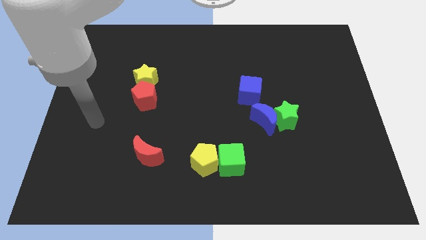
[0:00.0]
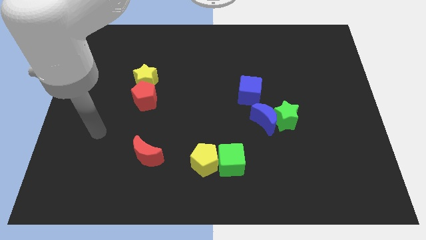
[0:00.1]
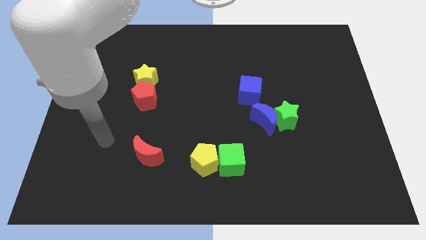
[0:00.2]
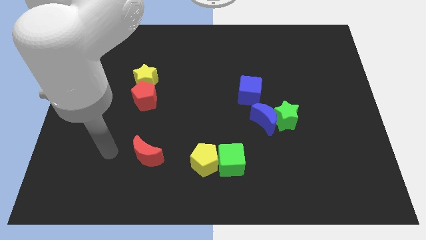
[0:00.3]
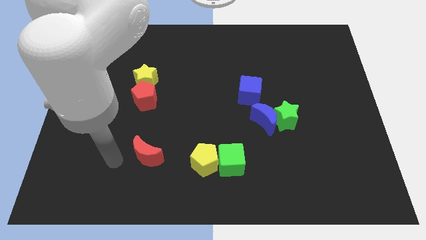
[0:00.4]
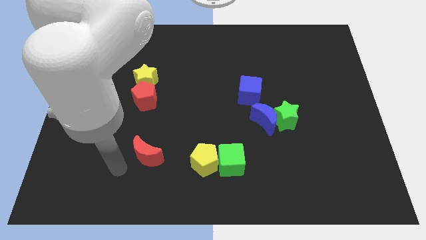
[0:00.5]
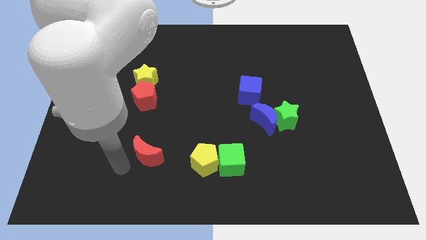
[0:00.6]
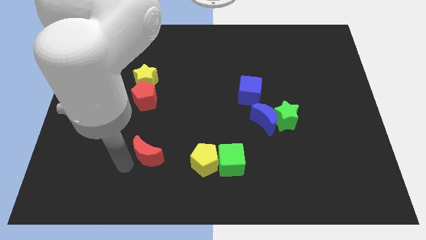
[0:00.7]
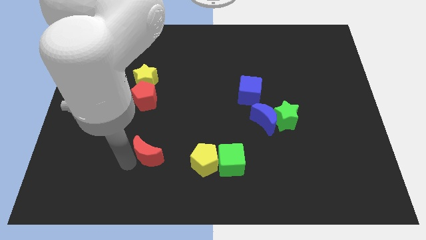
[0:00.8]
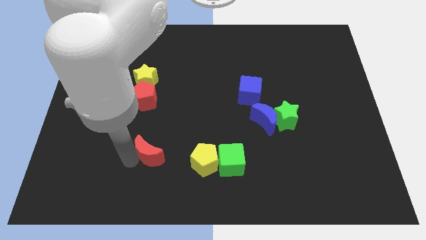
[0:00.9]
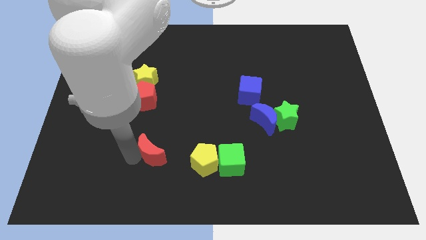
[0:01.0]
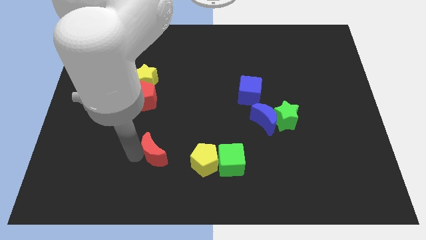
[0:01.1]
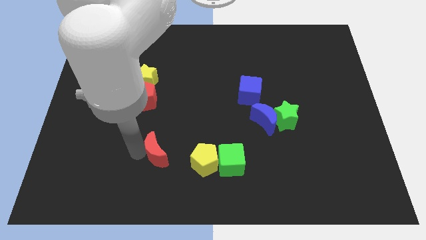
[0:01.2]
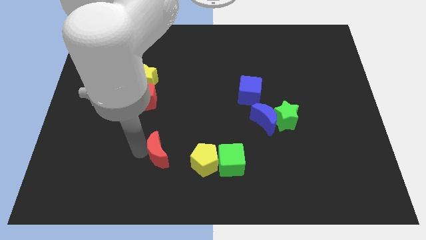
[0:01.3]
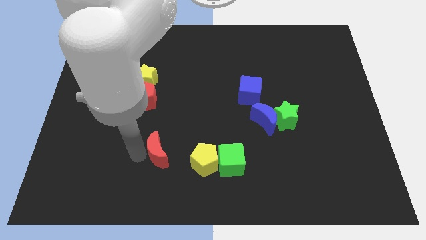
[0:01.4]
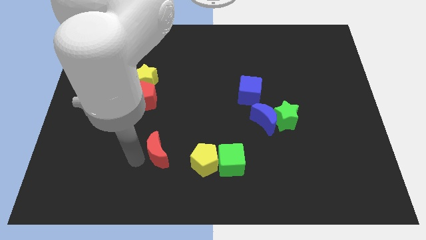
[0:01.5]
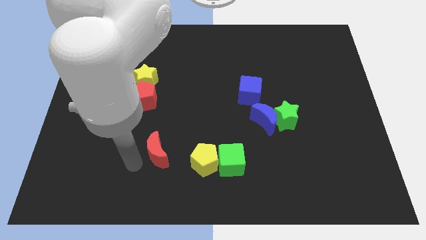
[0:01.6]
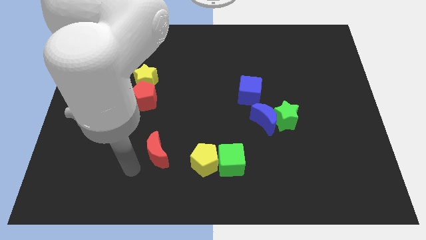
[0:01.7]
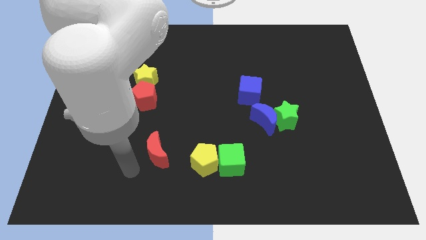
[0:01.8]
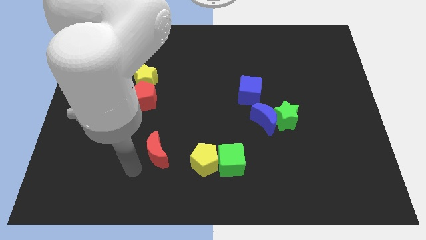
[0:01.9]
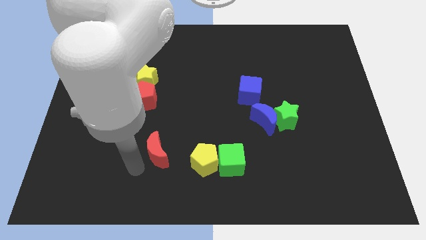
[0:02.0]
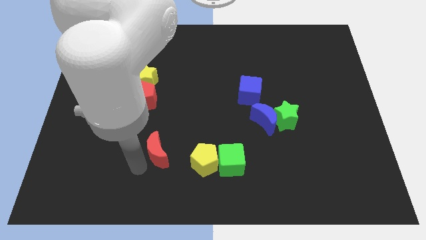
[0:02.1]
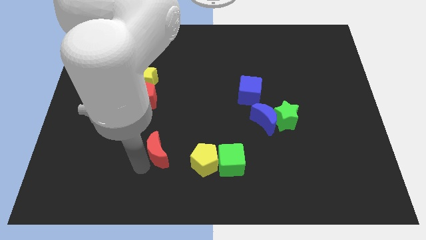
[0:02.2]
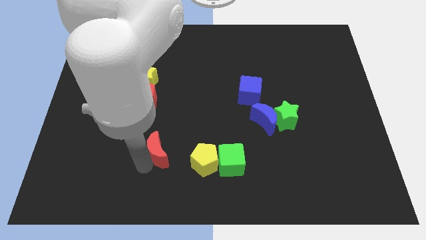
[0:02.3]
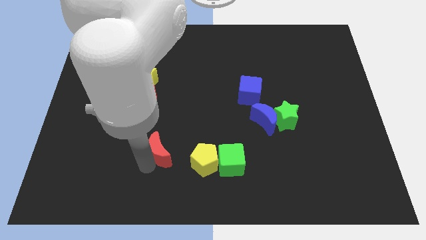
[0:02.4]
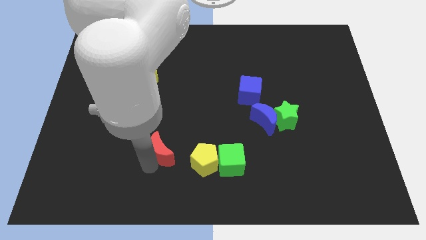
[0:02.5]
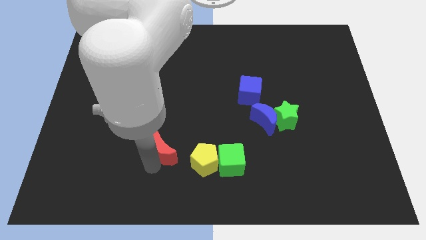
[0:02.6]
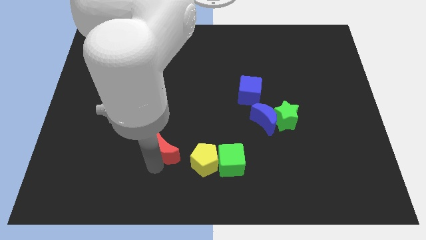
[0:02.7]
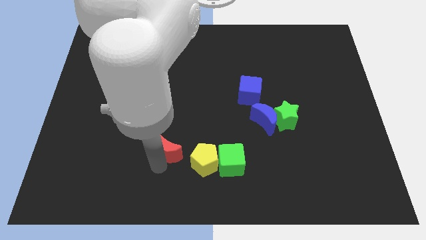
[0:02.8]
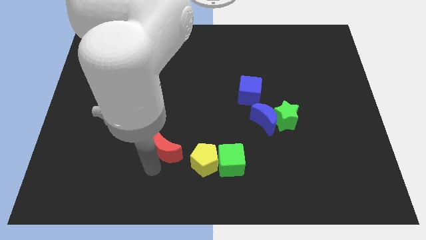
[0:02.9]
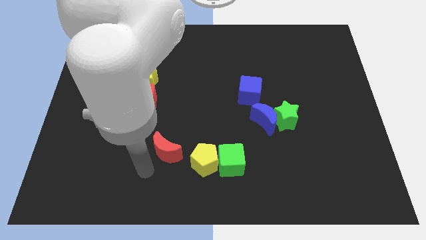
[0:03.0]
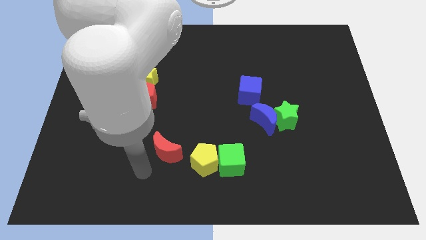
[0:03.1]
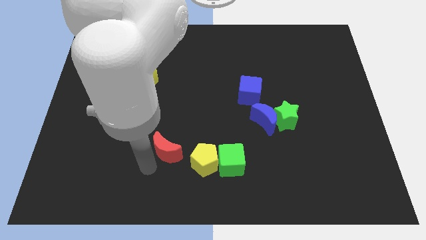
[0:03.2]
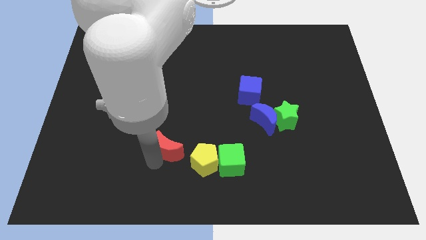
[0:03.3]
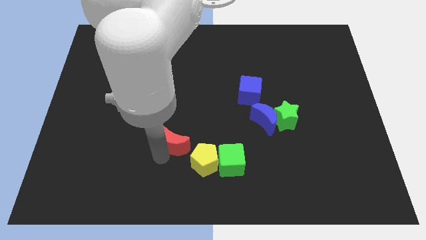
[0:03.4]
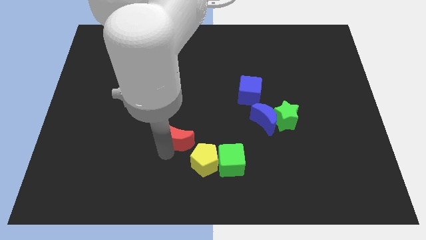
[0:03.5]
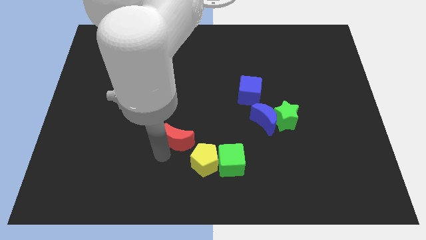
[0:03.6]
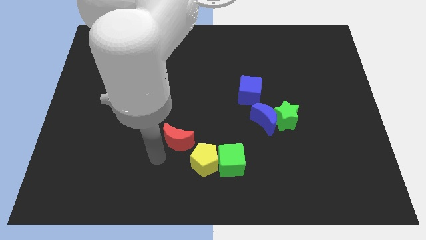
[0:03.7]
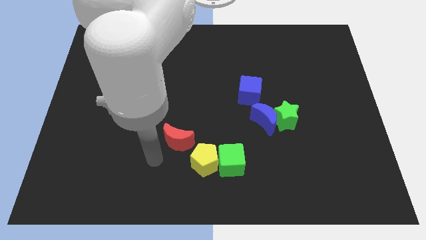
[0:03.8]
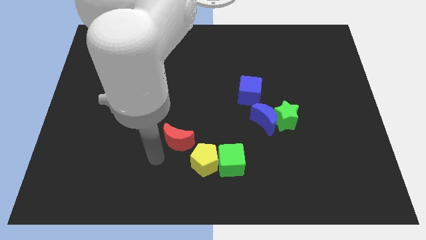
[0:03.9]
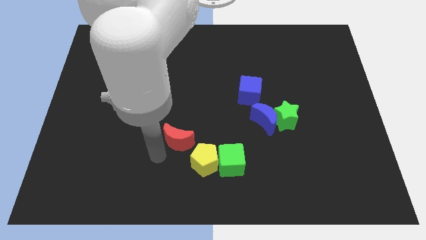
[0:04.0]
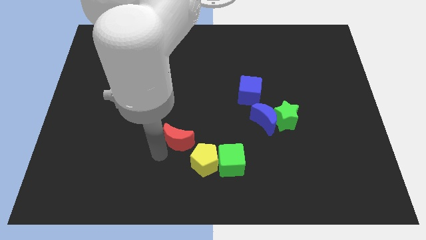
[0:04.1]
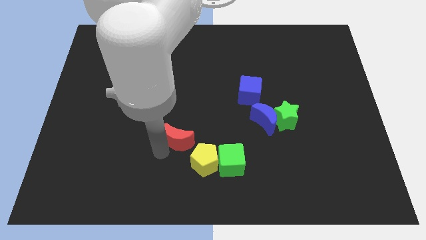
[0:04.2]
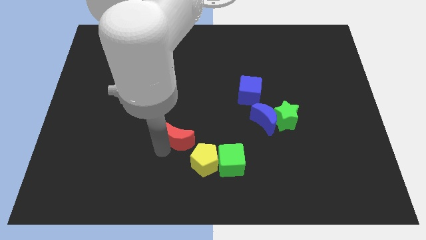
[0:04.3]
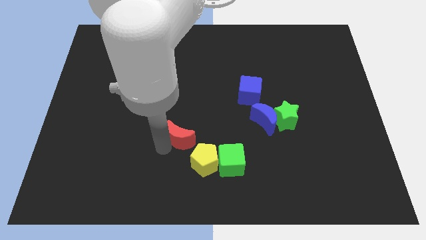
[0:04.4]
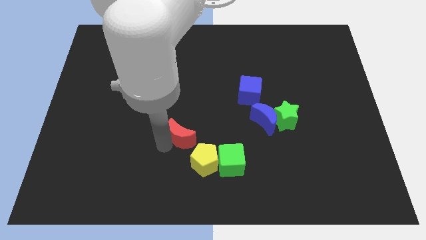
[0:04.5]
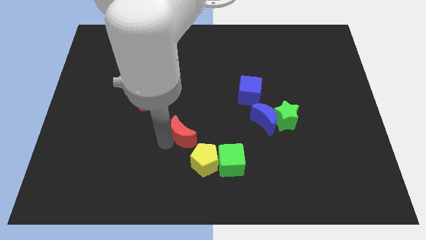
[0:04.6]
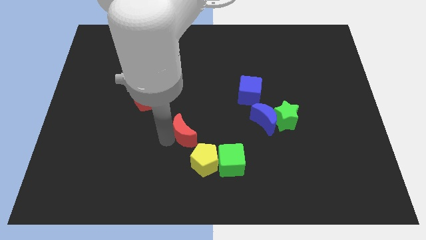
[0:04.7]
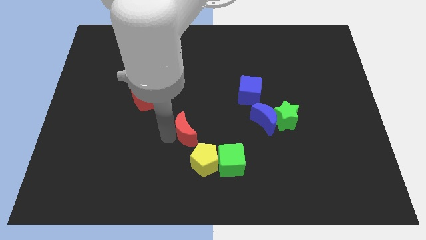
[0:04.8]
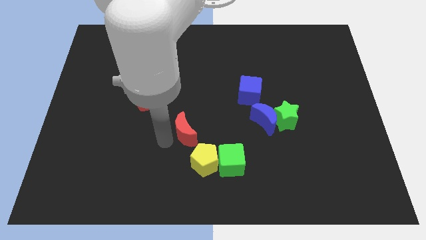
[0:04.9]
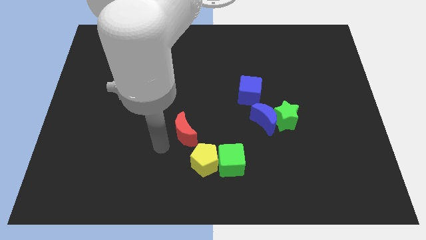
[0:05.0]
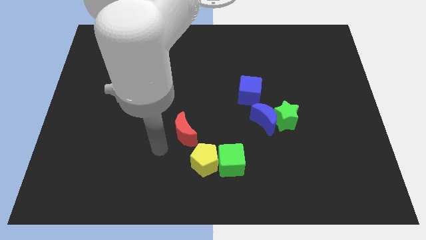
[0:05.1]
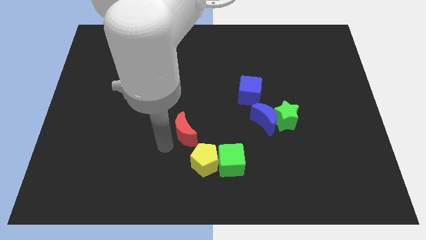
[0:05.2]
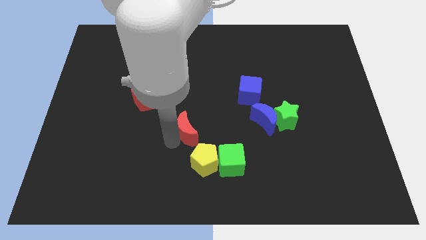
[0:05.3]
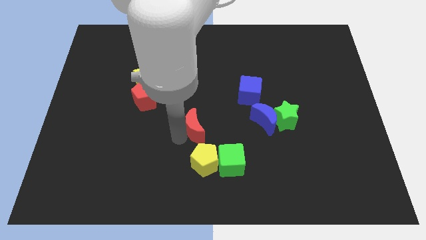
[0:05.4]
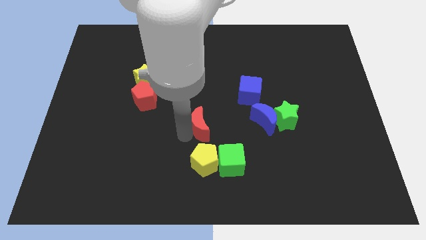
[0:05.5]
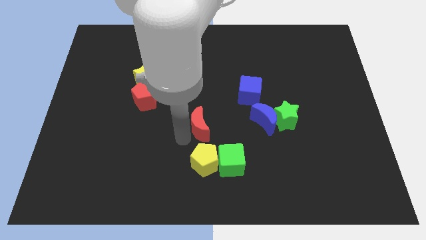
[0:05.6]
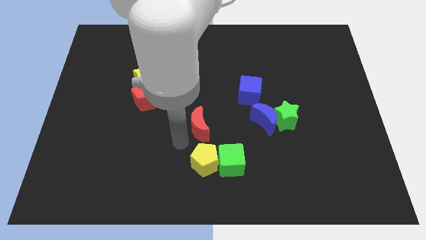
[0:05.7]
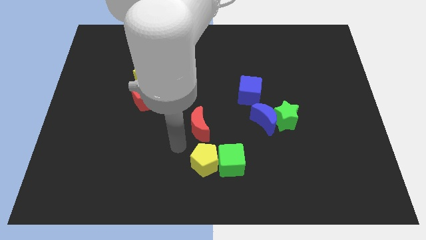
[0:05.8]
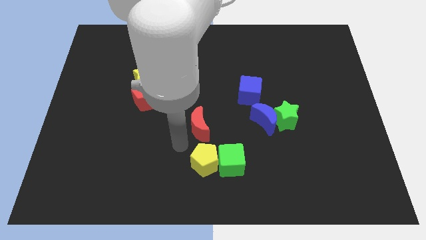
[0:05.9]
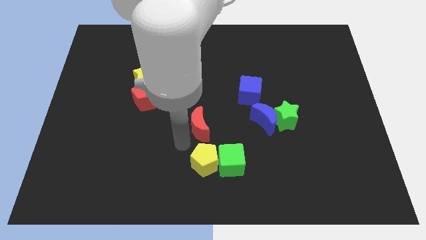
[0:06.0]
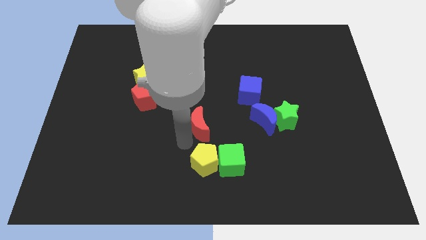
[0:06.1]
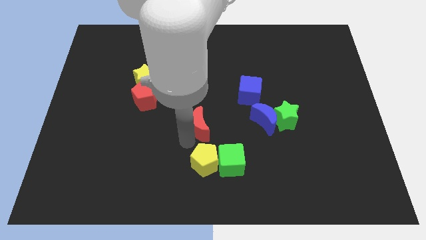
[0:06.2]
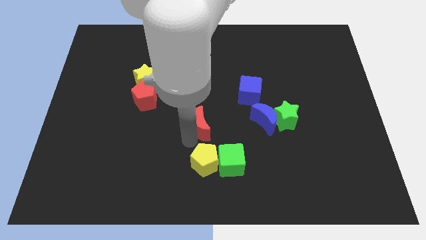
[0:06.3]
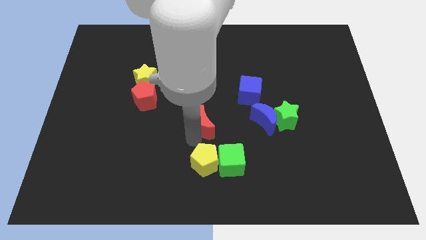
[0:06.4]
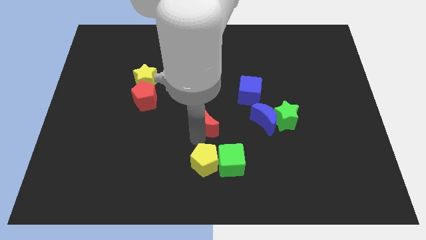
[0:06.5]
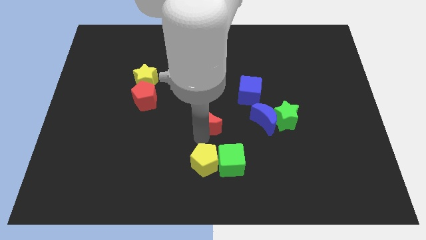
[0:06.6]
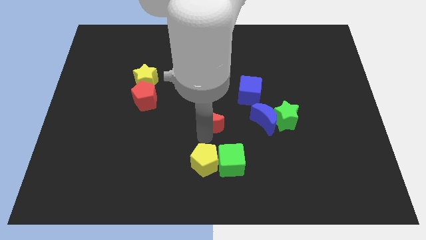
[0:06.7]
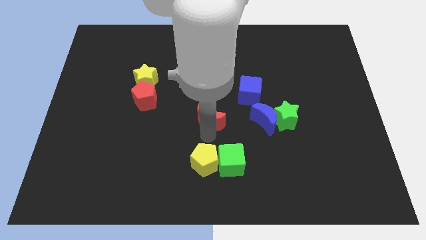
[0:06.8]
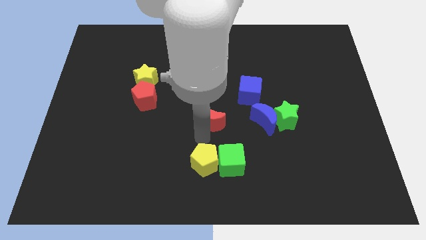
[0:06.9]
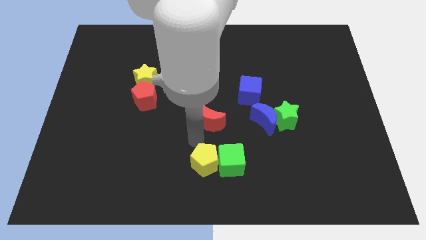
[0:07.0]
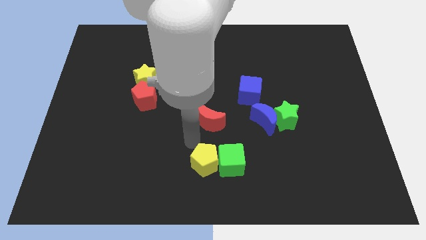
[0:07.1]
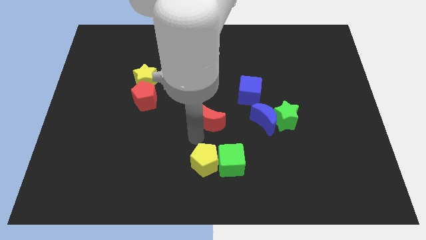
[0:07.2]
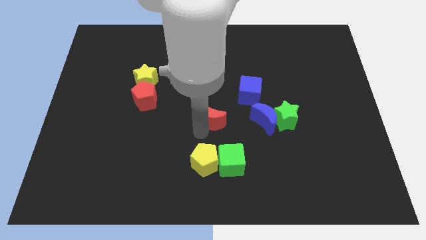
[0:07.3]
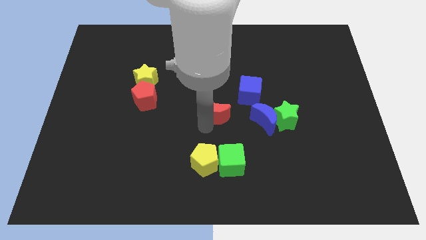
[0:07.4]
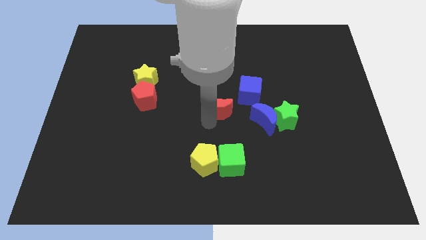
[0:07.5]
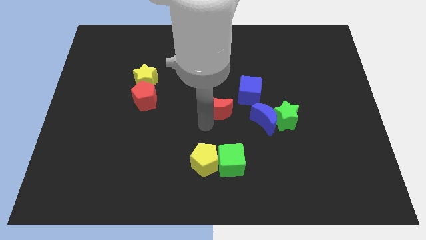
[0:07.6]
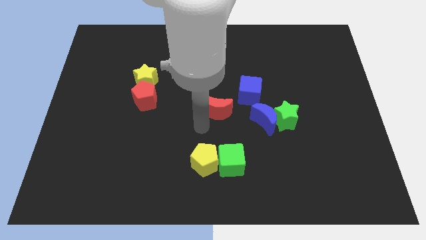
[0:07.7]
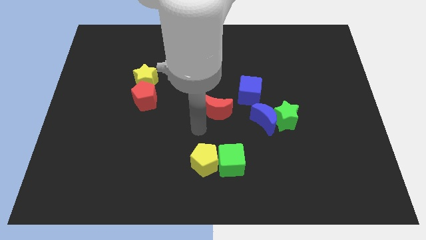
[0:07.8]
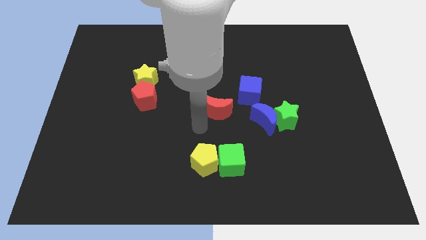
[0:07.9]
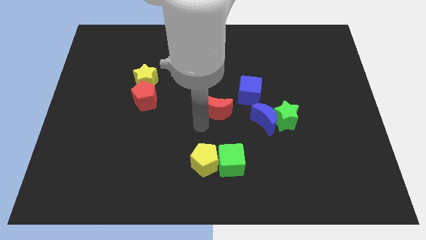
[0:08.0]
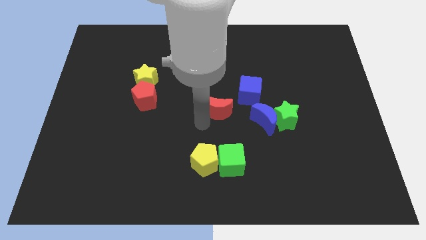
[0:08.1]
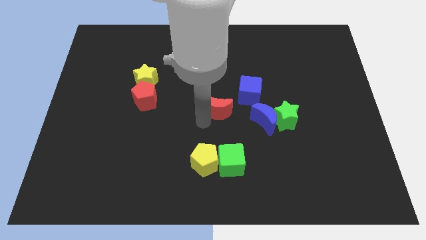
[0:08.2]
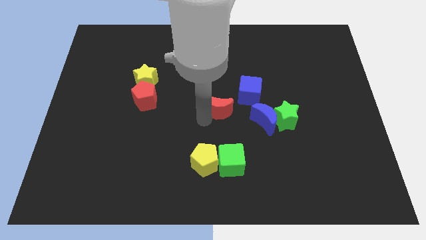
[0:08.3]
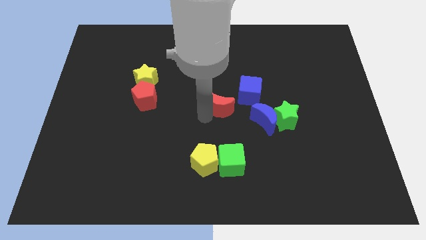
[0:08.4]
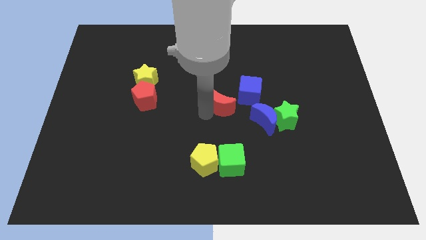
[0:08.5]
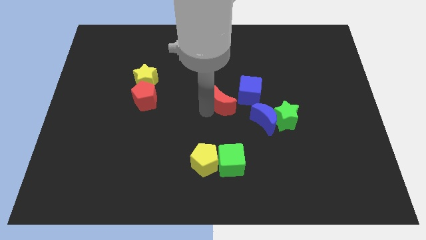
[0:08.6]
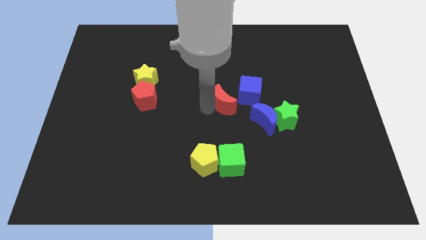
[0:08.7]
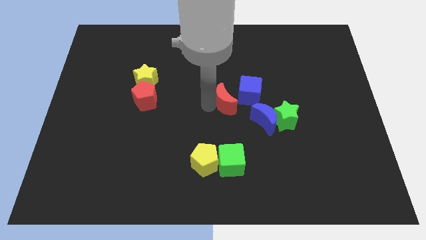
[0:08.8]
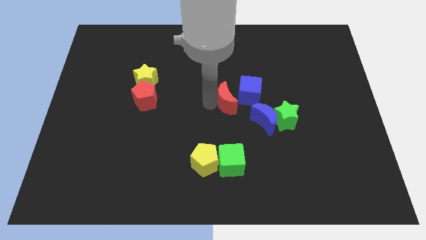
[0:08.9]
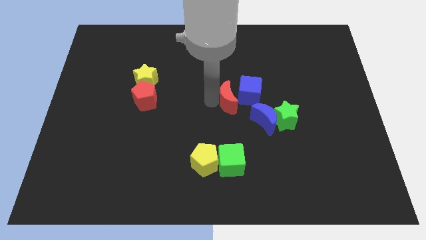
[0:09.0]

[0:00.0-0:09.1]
push the red moon next to the blue cube
